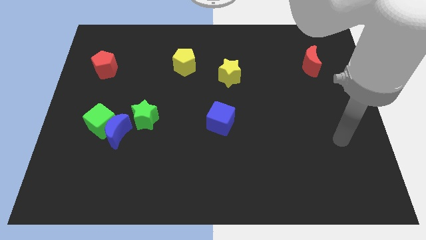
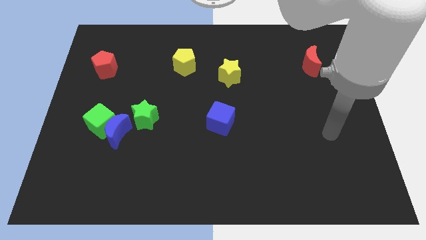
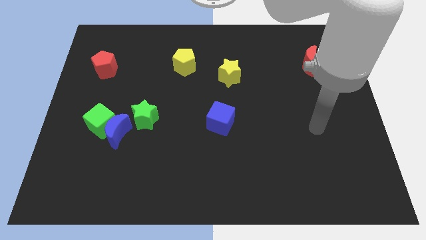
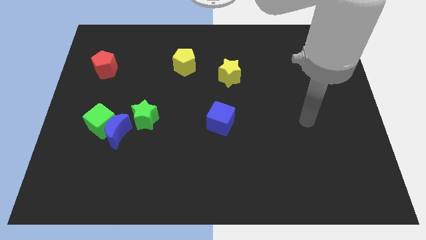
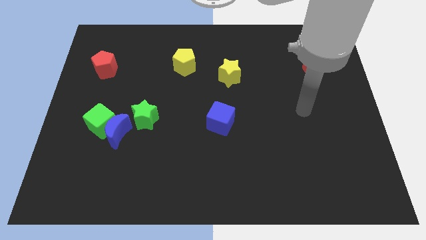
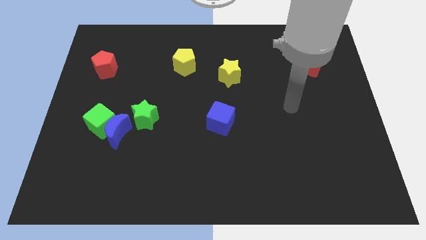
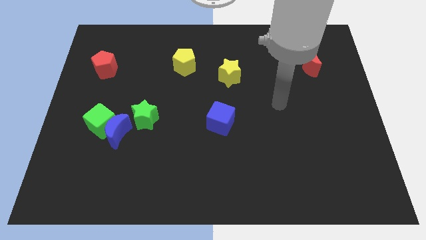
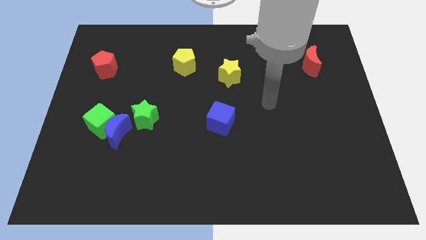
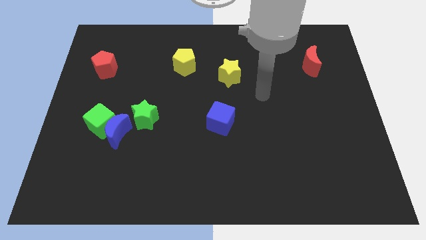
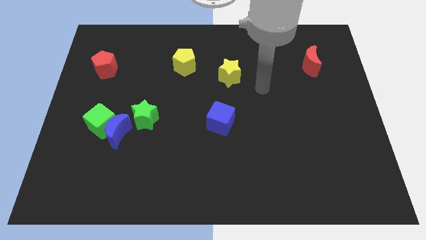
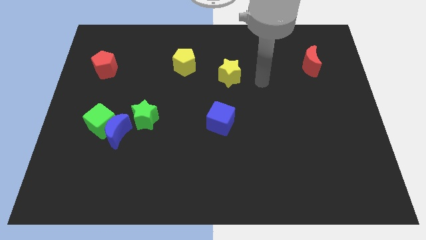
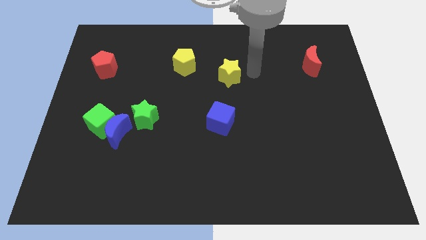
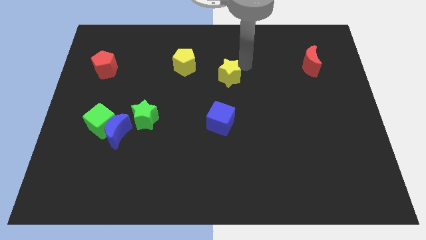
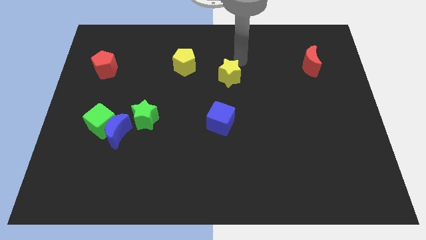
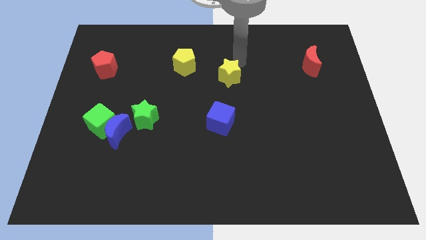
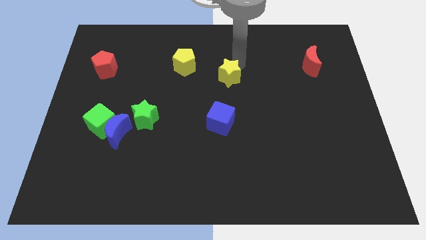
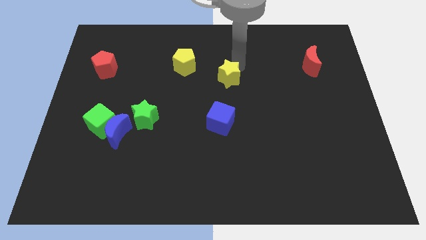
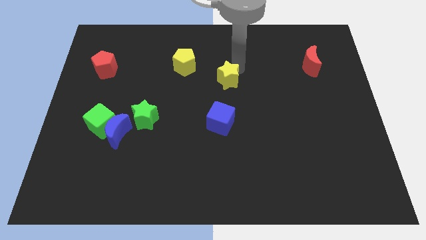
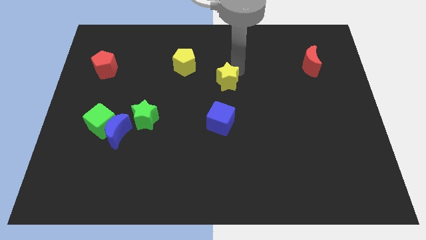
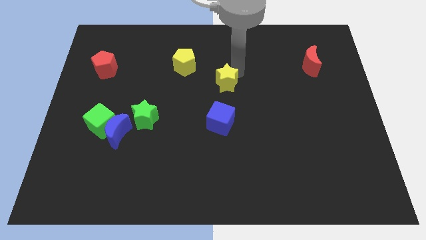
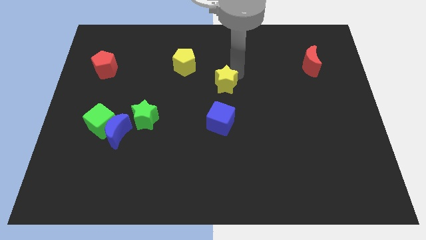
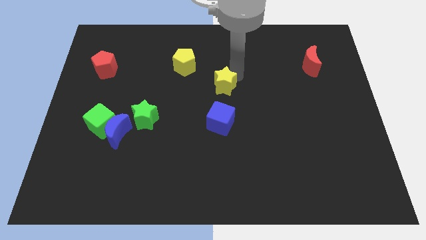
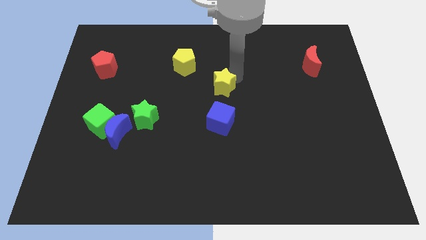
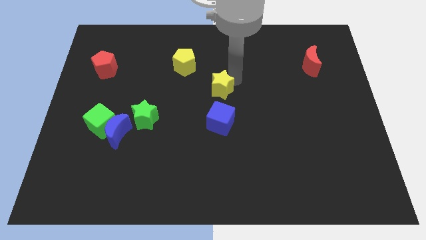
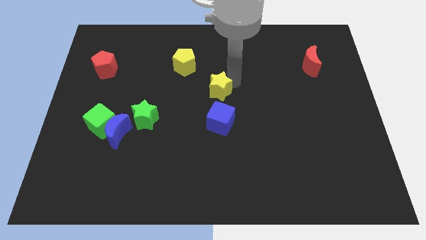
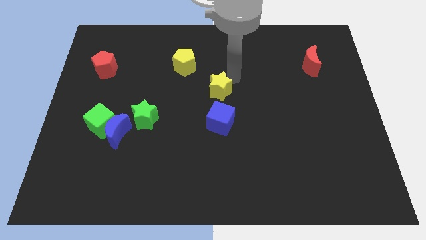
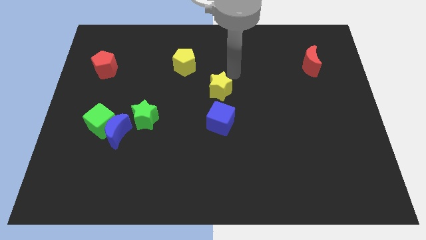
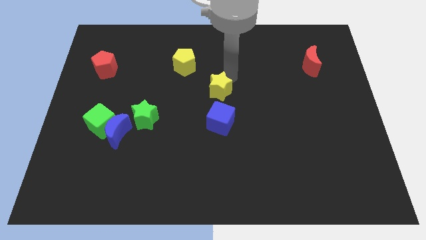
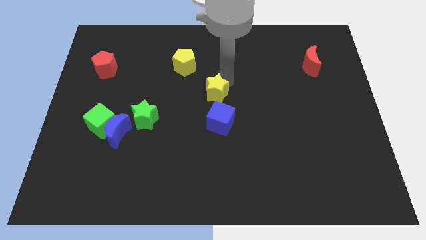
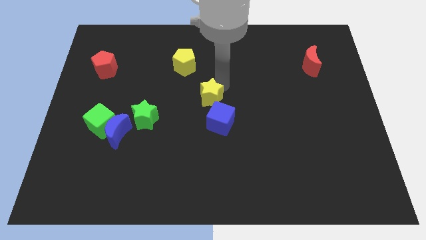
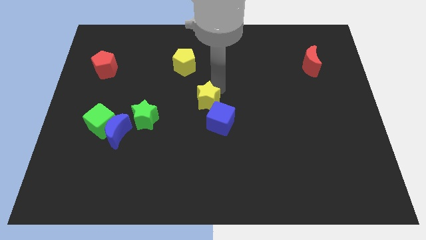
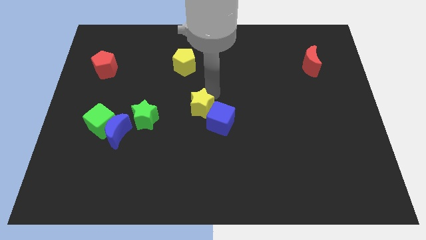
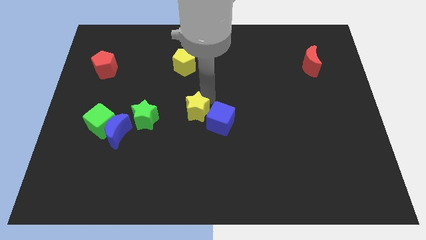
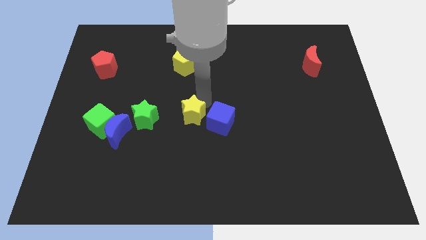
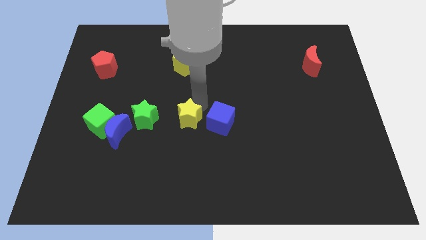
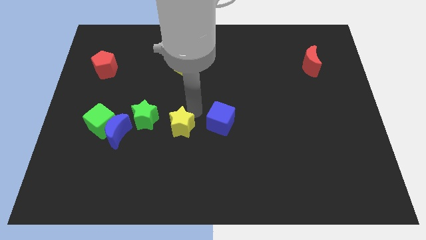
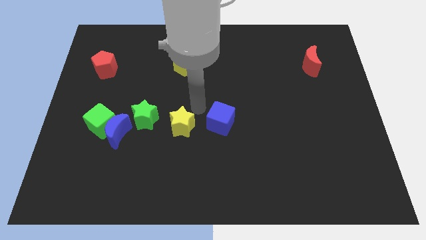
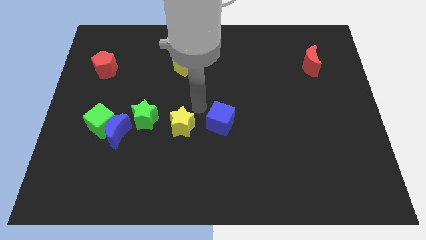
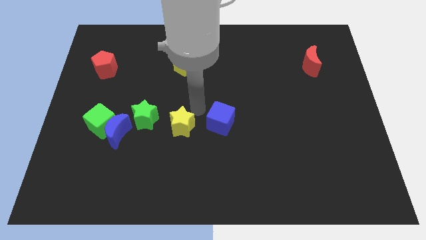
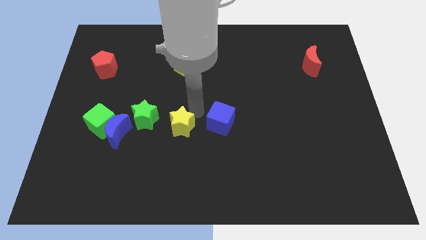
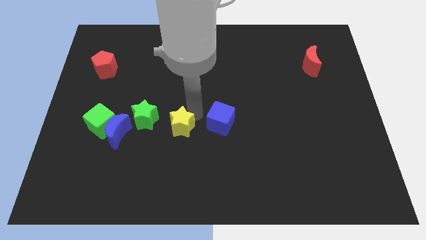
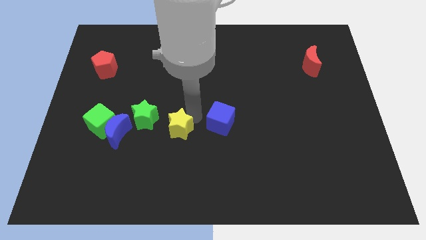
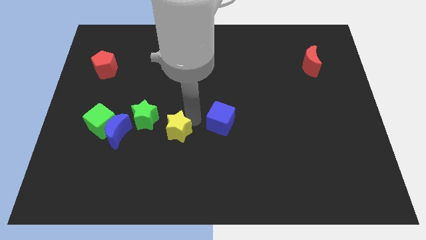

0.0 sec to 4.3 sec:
push the yellow star diagonally downwards and left

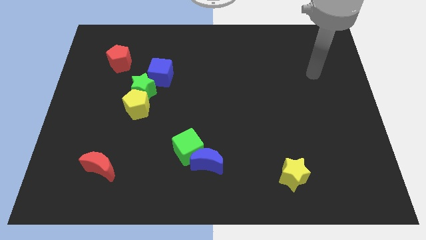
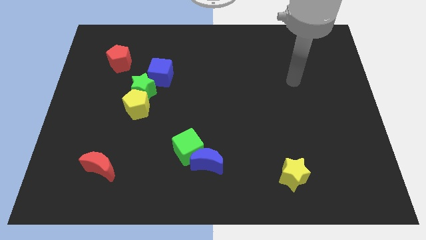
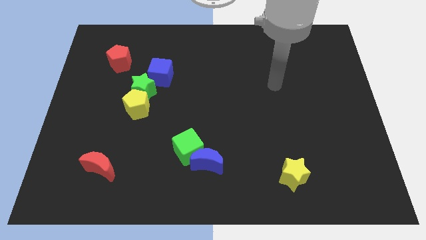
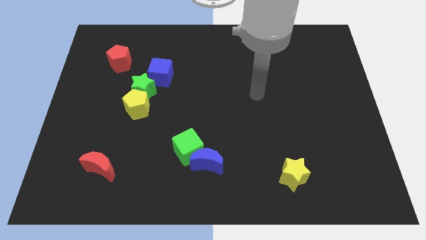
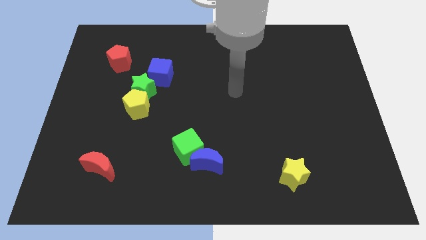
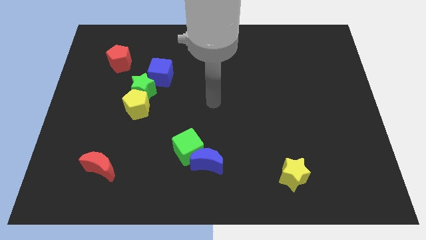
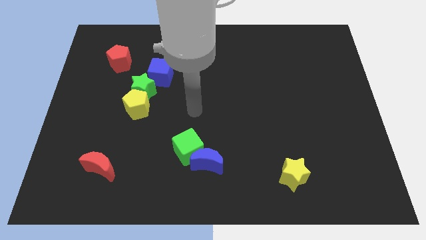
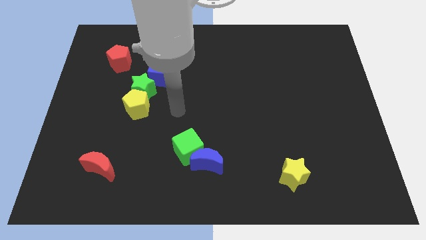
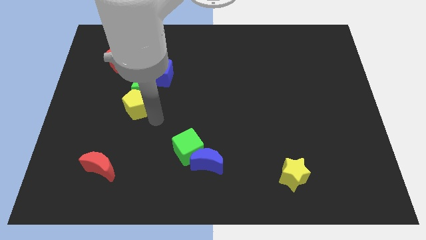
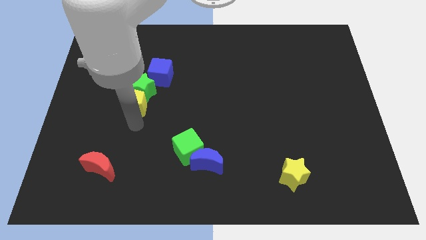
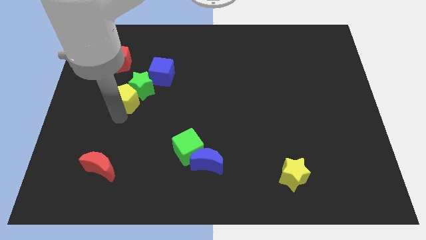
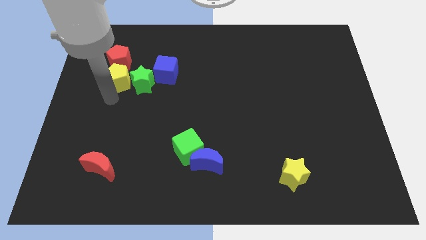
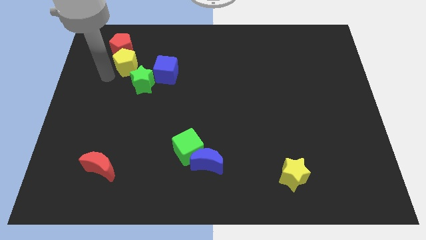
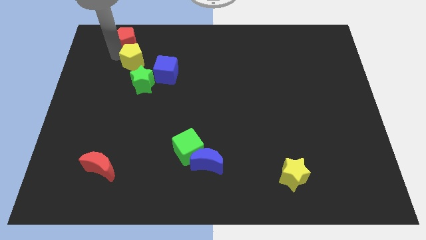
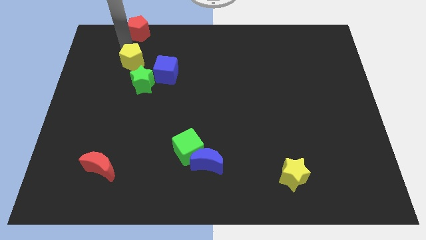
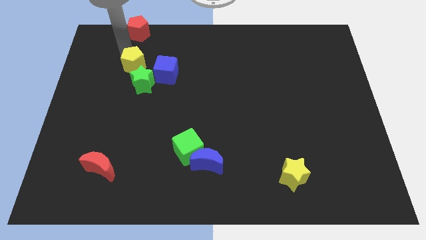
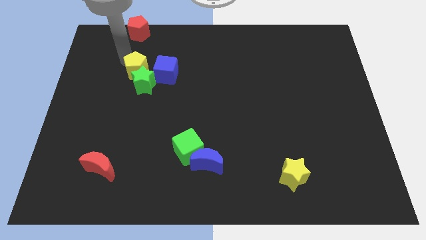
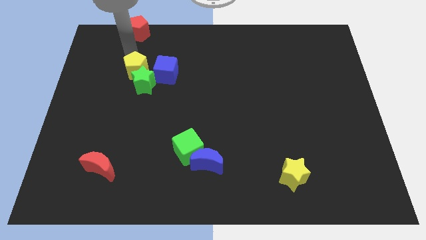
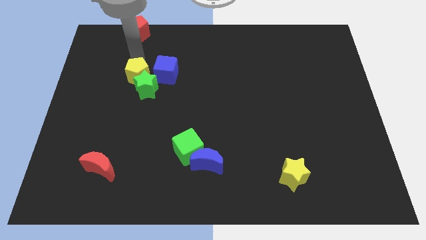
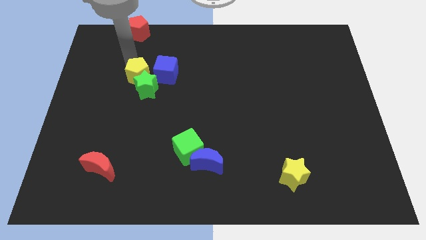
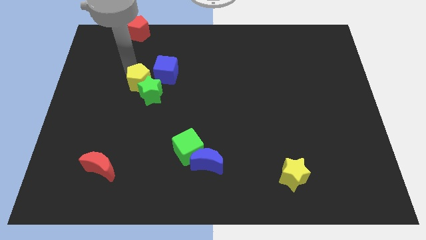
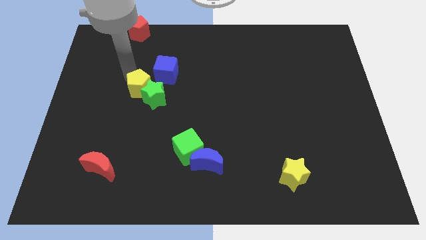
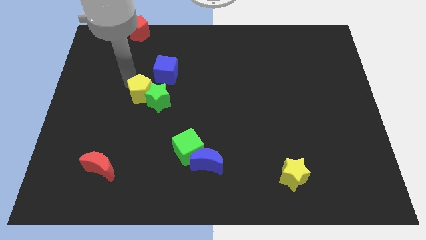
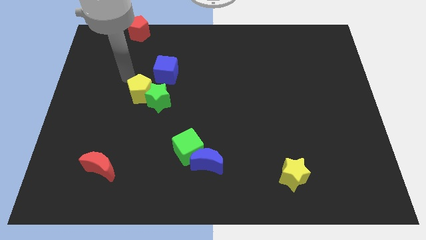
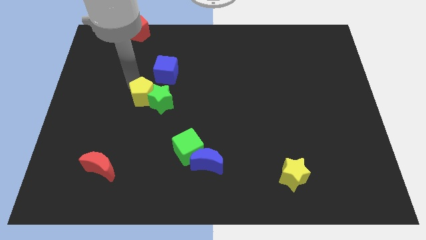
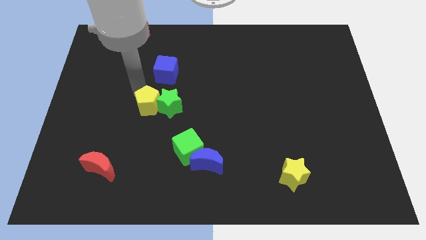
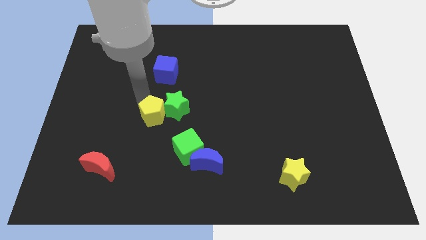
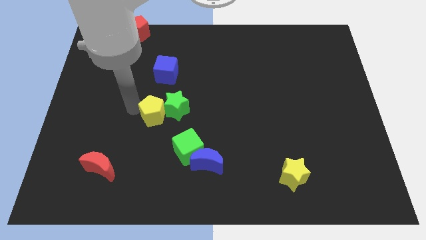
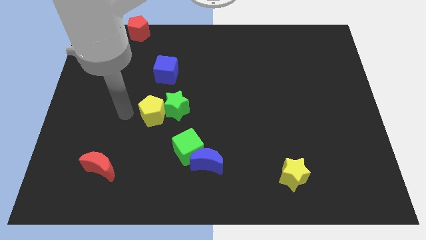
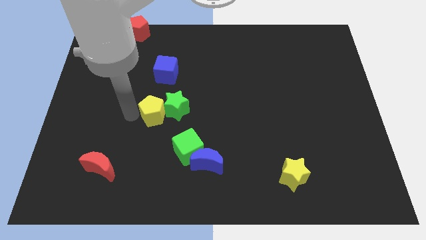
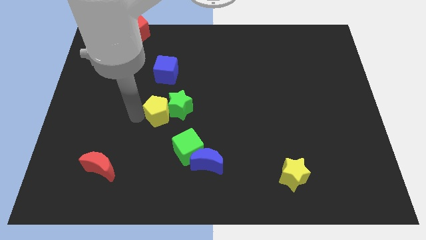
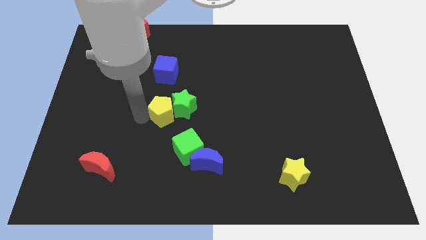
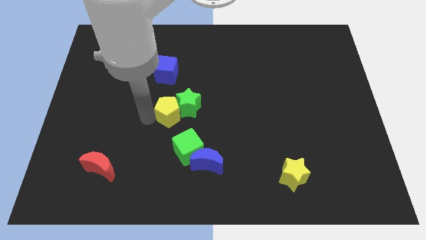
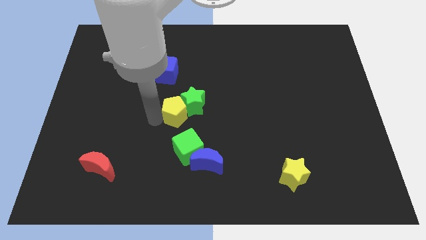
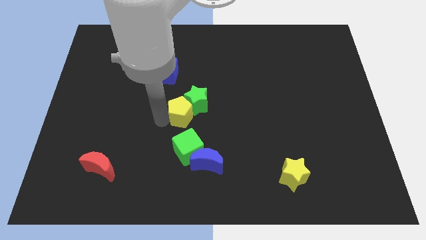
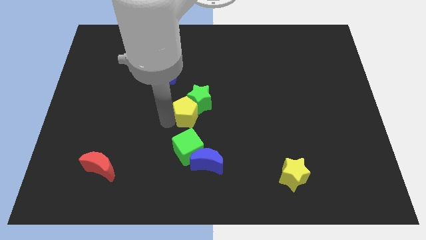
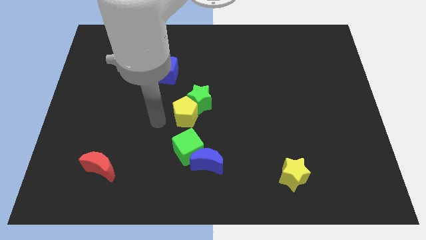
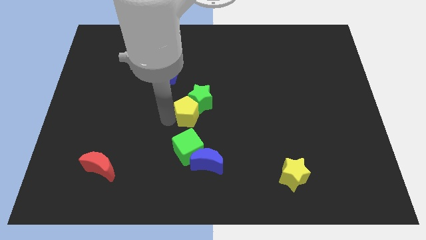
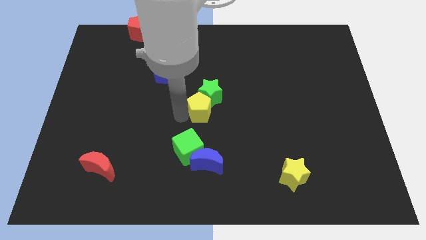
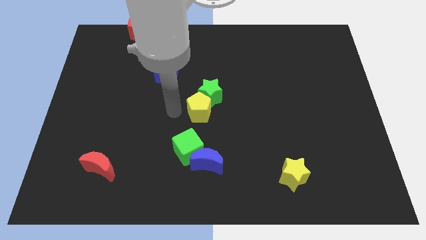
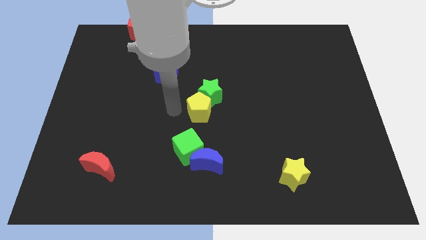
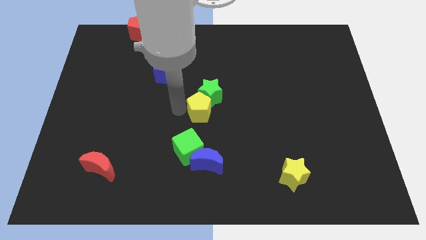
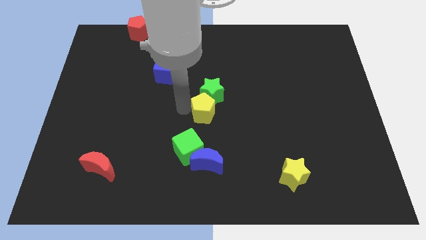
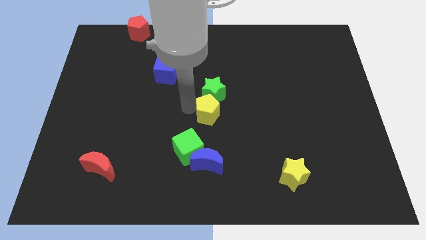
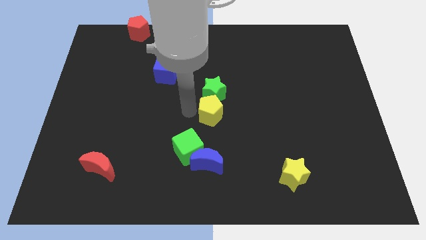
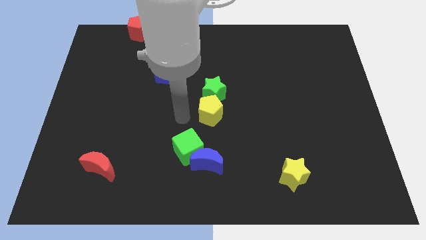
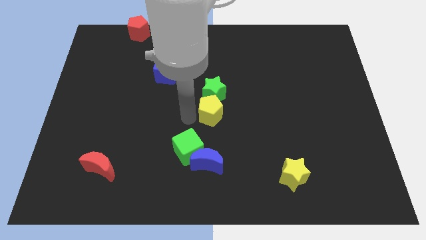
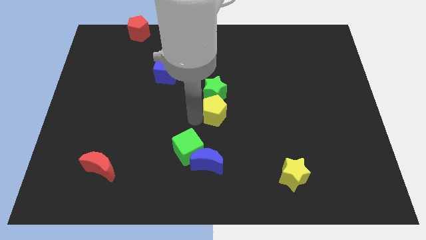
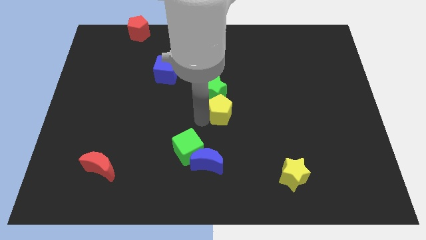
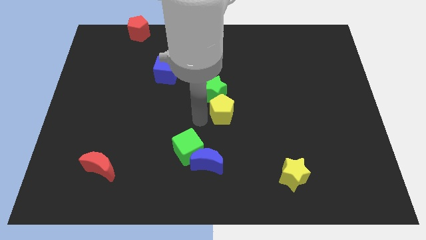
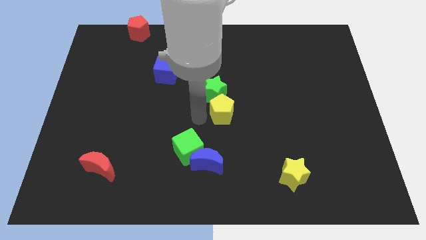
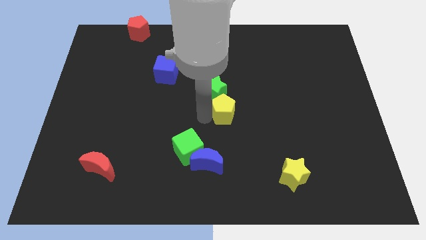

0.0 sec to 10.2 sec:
move the yellow pentagon to the right
